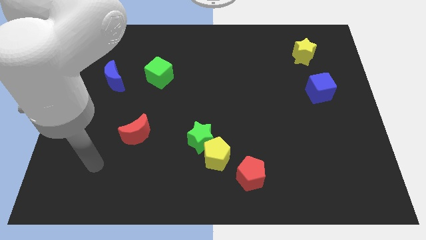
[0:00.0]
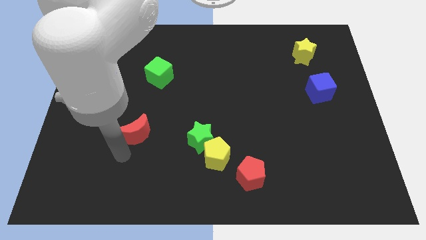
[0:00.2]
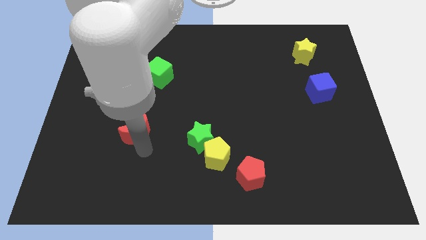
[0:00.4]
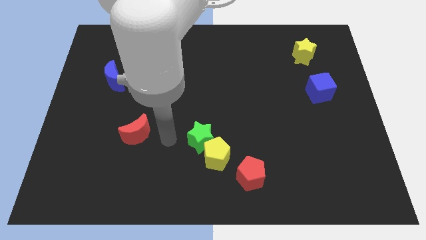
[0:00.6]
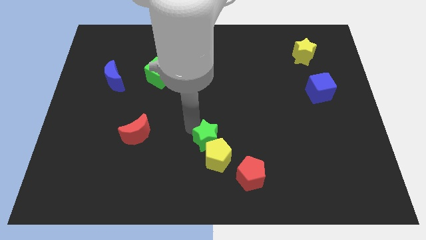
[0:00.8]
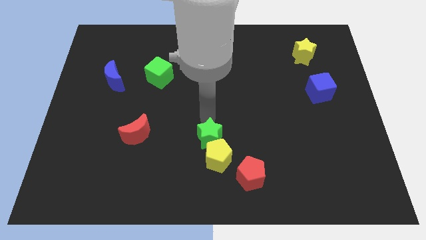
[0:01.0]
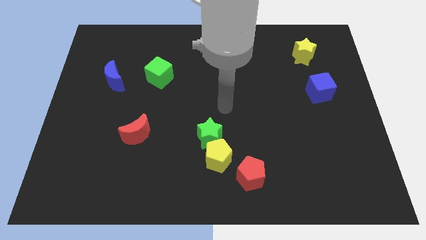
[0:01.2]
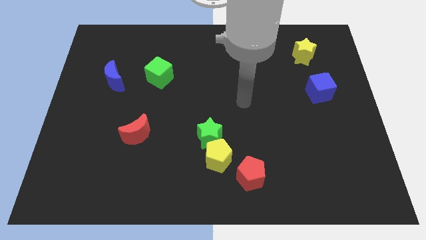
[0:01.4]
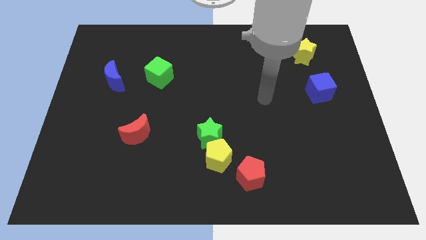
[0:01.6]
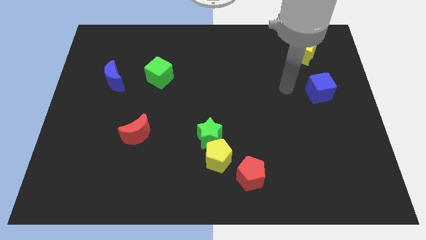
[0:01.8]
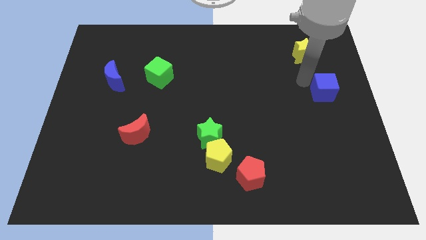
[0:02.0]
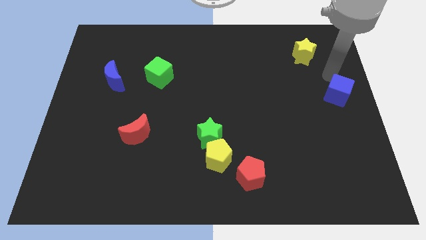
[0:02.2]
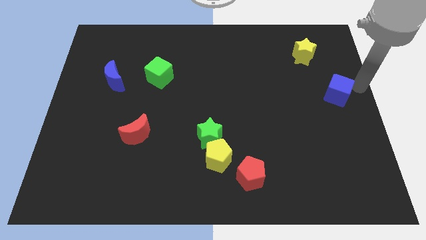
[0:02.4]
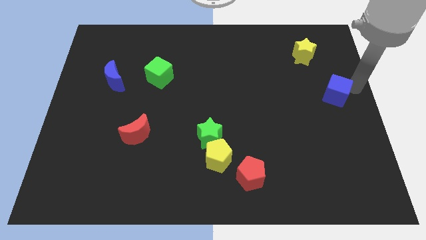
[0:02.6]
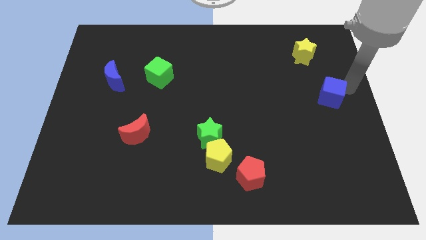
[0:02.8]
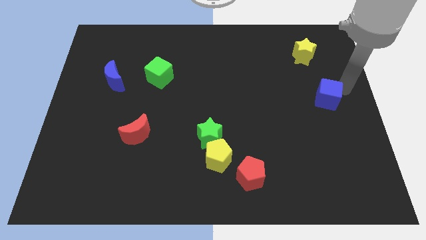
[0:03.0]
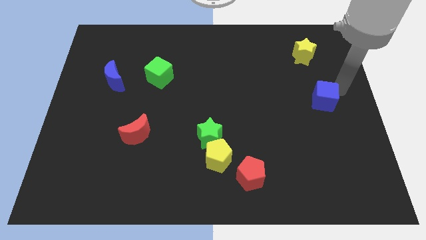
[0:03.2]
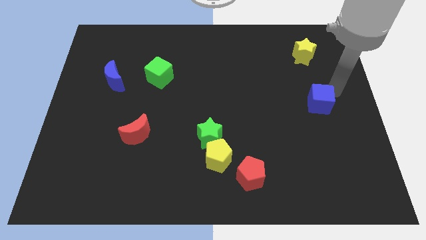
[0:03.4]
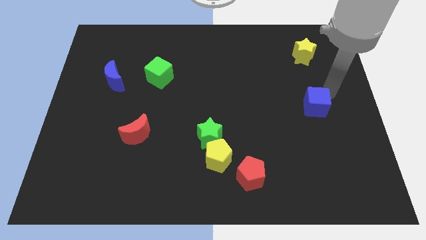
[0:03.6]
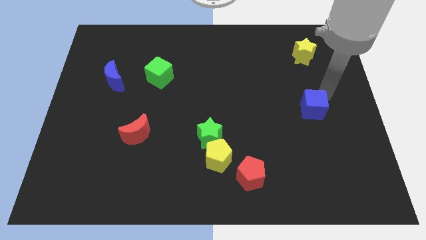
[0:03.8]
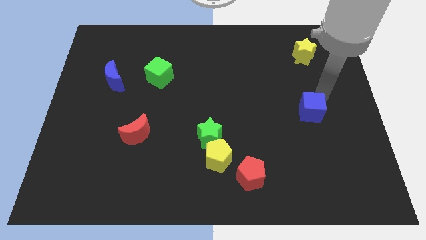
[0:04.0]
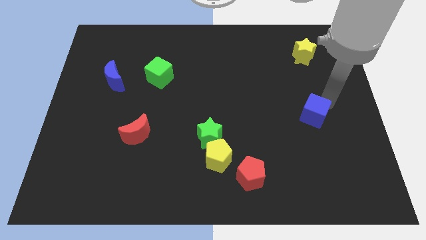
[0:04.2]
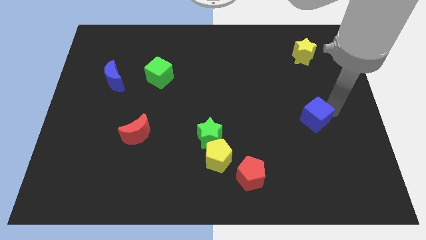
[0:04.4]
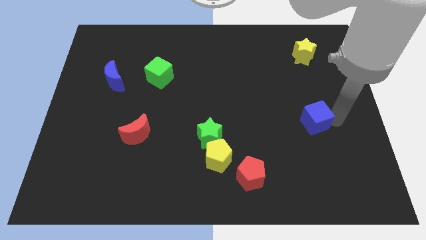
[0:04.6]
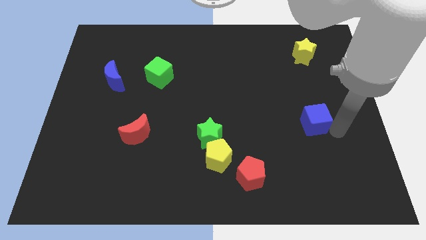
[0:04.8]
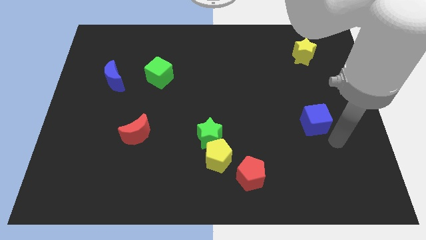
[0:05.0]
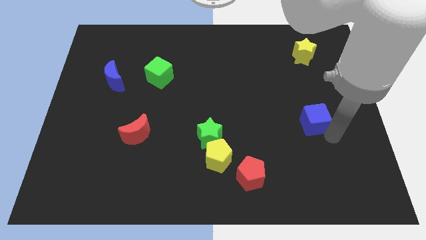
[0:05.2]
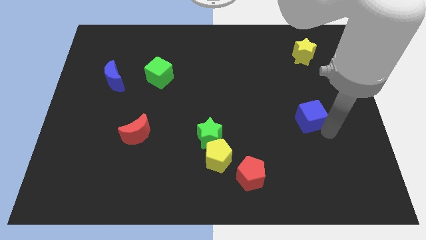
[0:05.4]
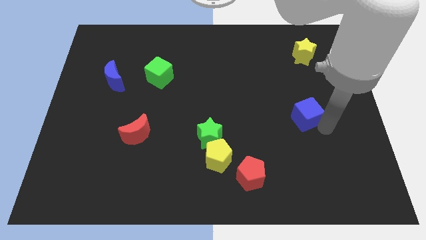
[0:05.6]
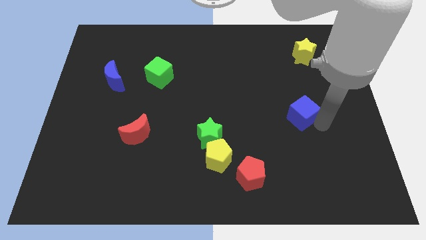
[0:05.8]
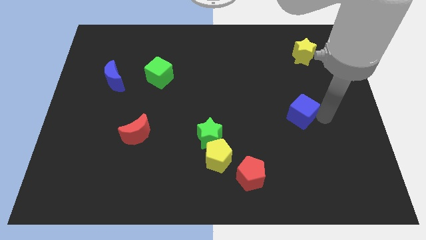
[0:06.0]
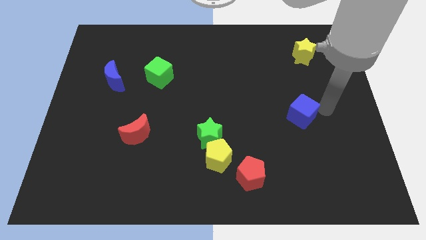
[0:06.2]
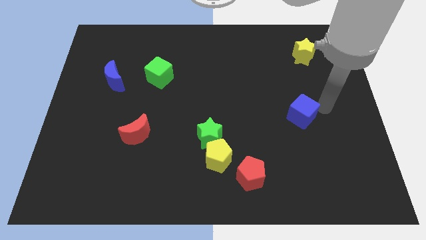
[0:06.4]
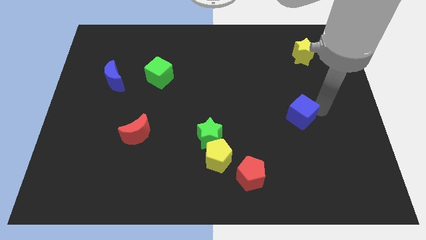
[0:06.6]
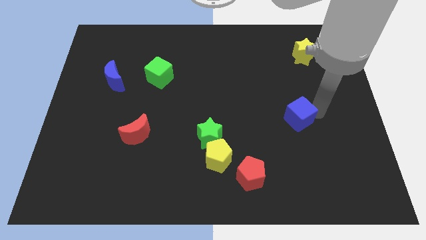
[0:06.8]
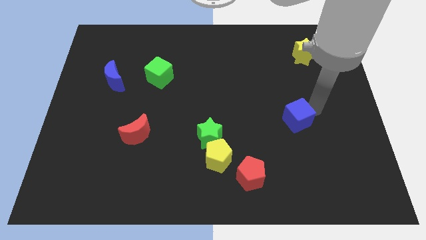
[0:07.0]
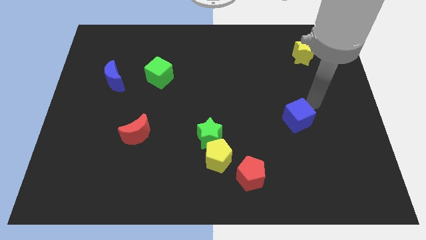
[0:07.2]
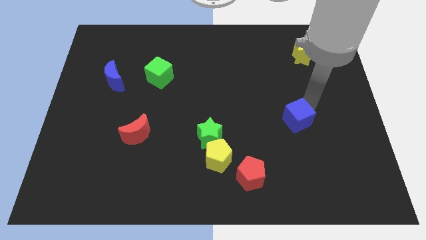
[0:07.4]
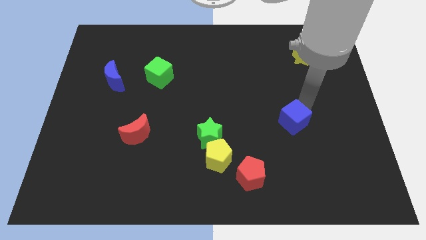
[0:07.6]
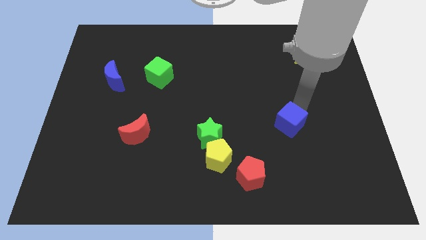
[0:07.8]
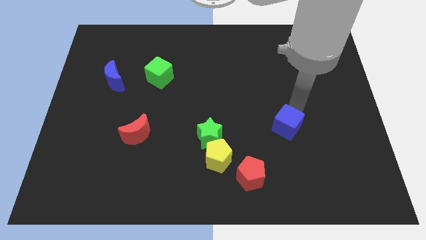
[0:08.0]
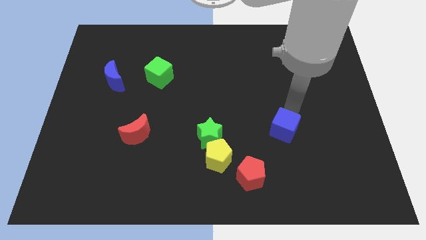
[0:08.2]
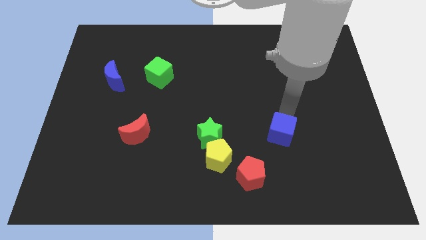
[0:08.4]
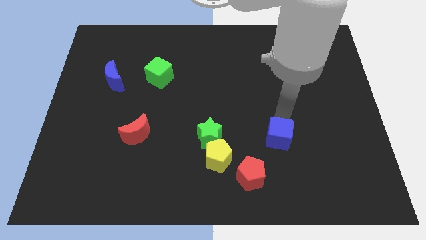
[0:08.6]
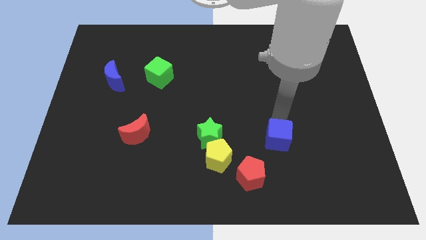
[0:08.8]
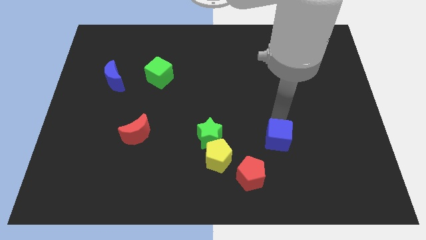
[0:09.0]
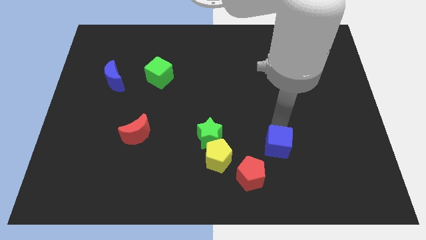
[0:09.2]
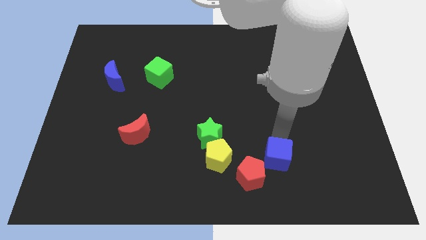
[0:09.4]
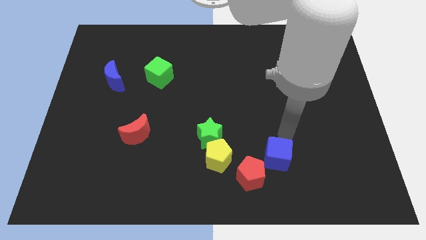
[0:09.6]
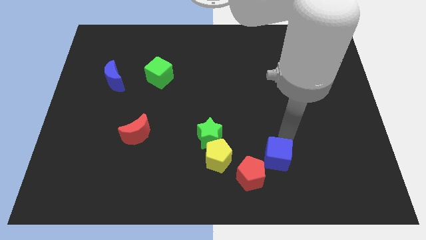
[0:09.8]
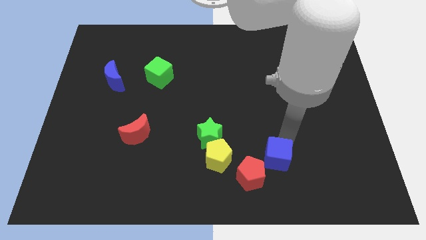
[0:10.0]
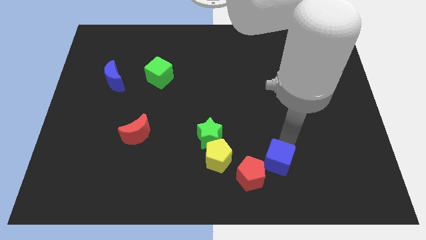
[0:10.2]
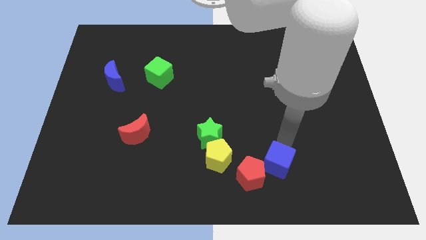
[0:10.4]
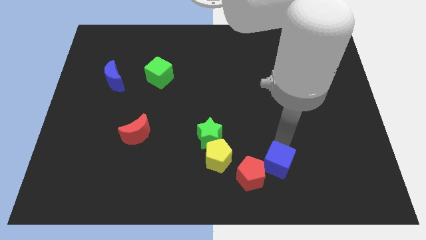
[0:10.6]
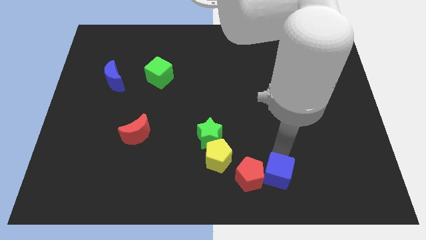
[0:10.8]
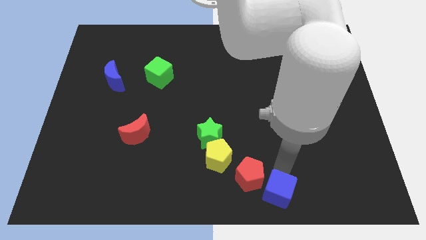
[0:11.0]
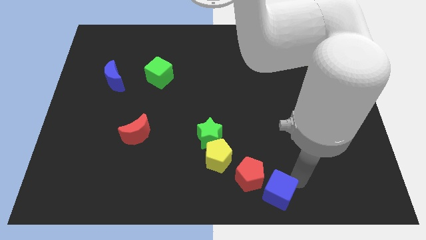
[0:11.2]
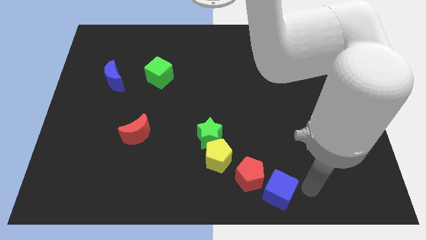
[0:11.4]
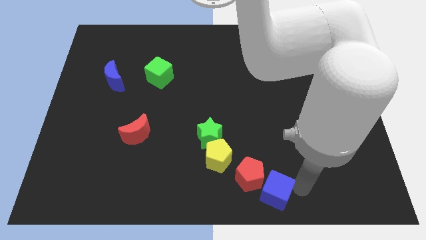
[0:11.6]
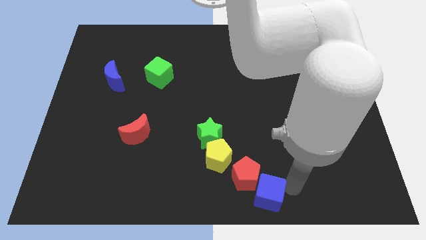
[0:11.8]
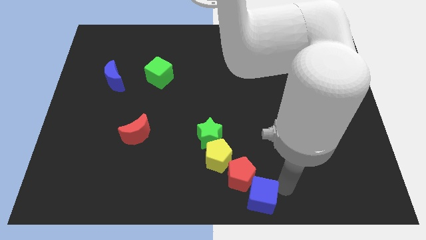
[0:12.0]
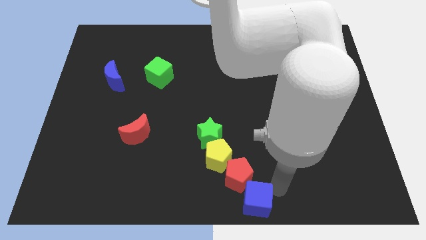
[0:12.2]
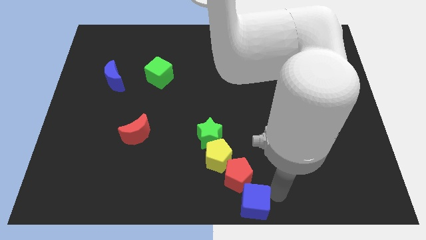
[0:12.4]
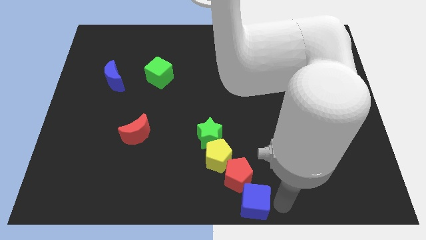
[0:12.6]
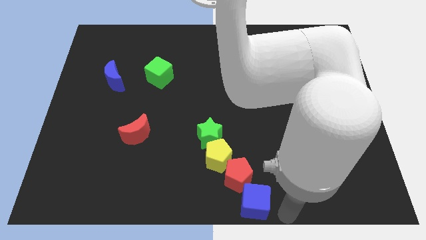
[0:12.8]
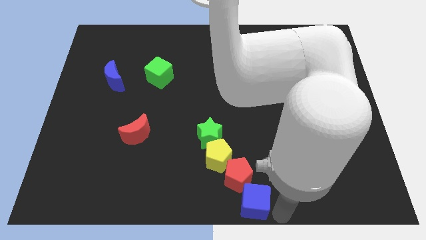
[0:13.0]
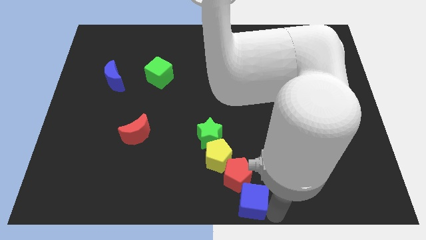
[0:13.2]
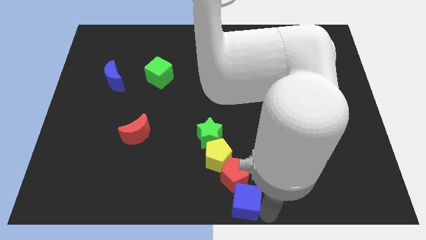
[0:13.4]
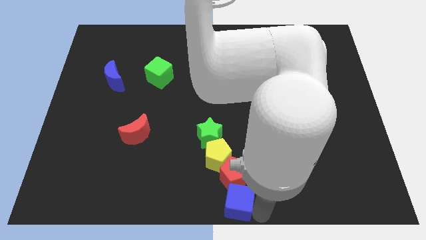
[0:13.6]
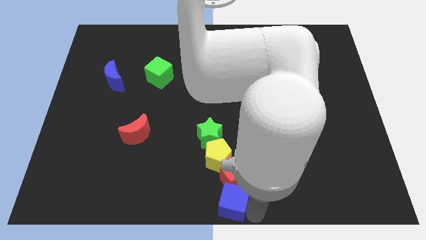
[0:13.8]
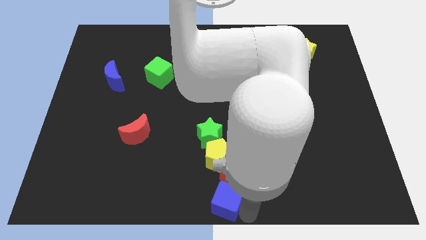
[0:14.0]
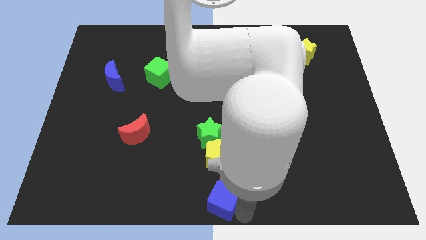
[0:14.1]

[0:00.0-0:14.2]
slide the blue cube to the bottom of the green star
